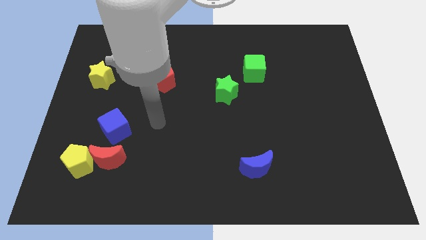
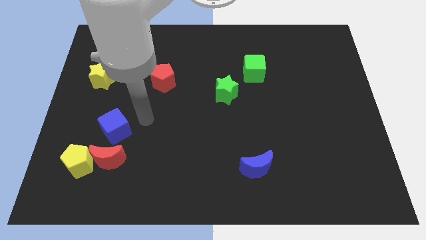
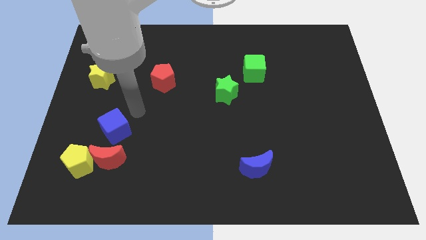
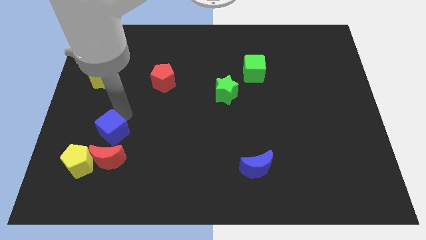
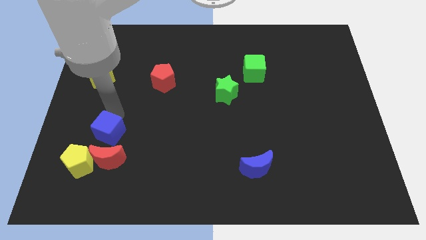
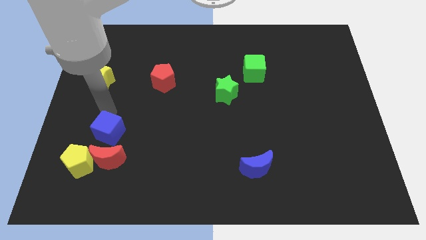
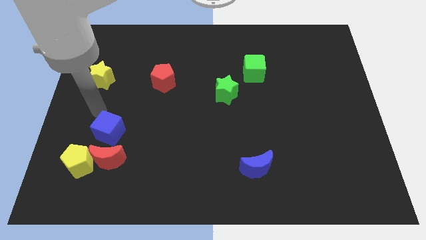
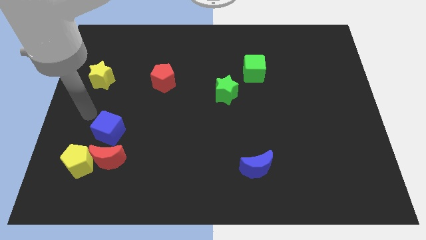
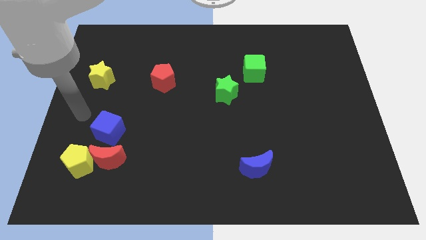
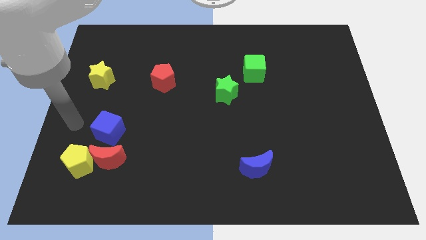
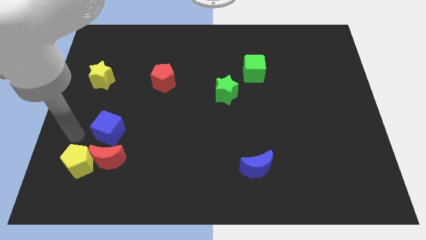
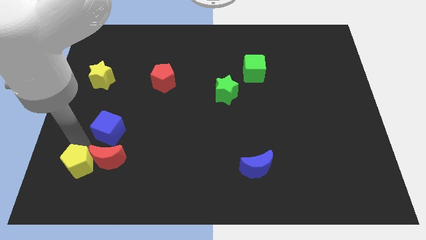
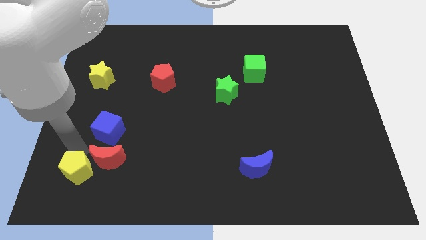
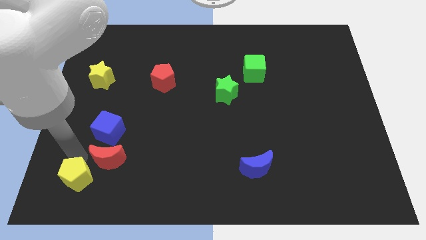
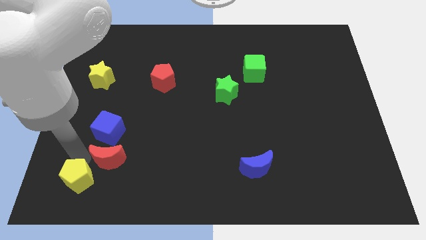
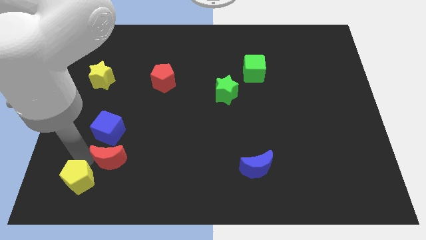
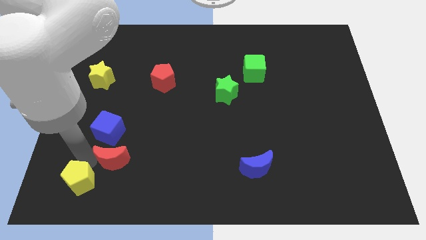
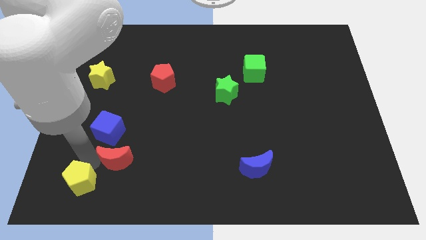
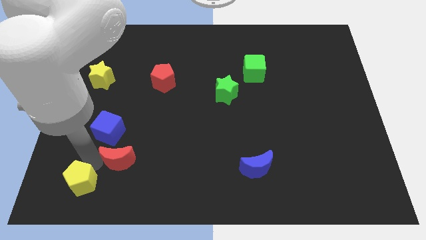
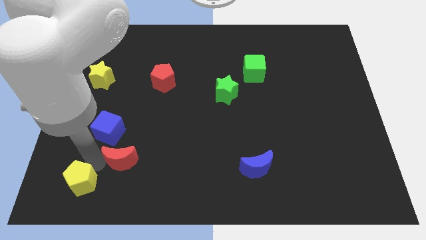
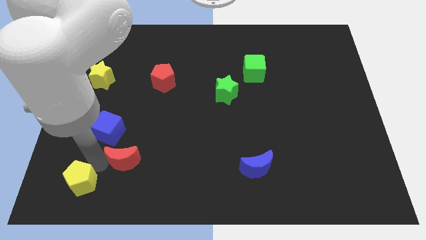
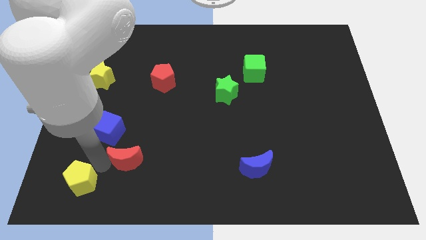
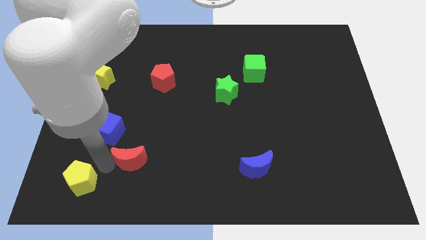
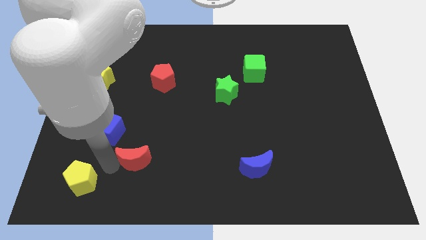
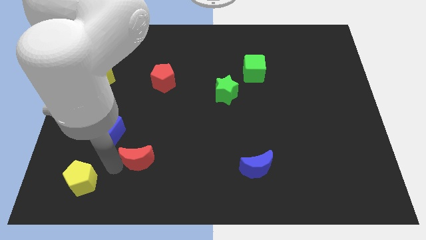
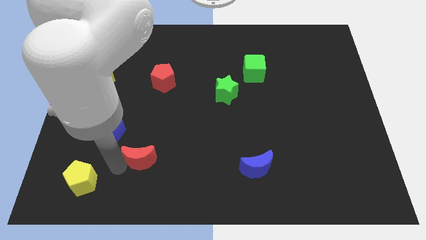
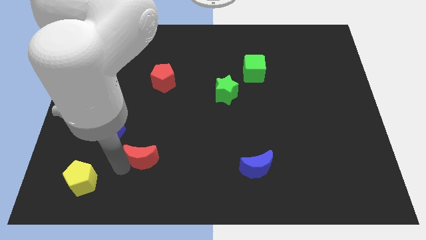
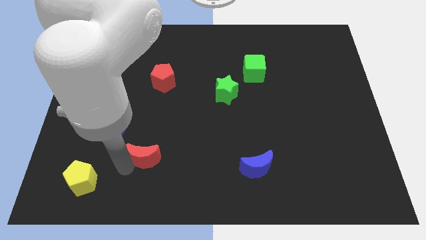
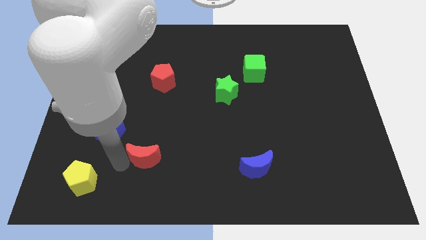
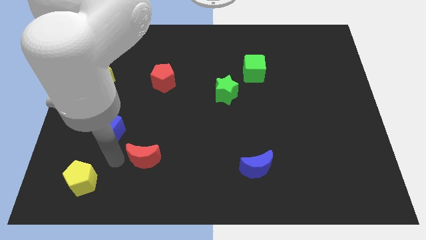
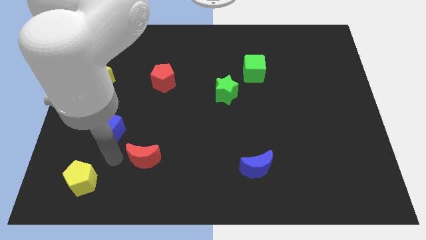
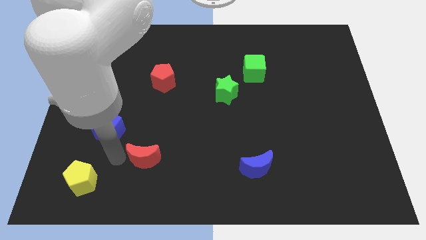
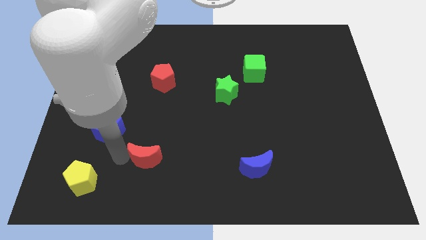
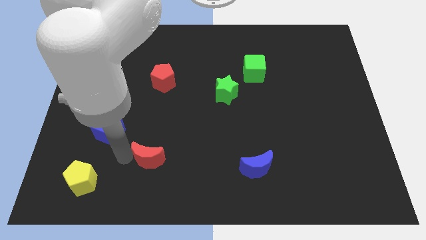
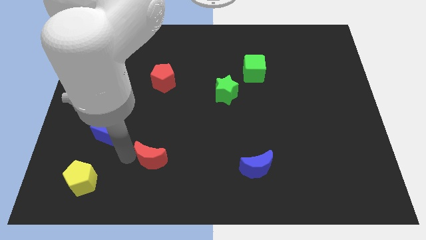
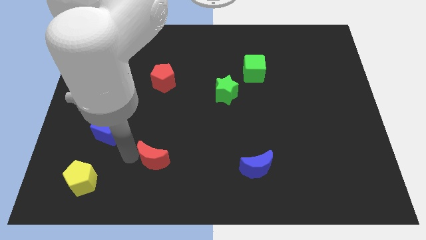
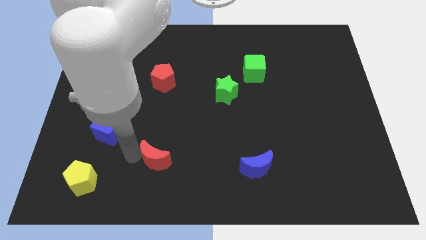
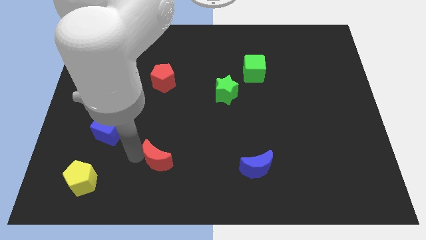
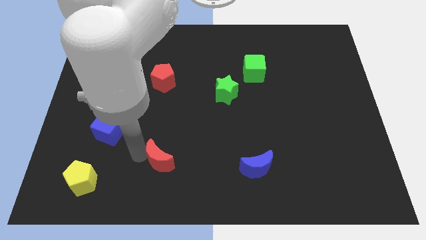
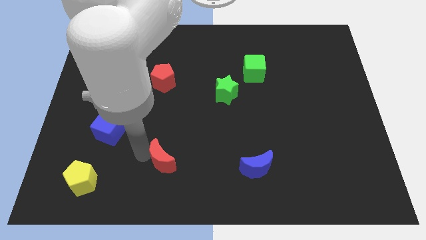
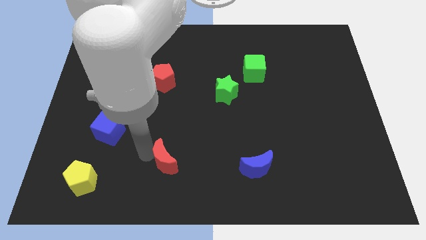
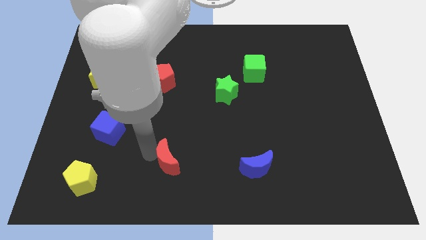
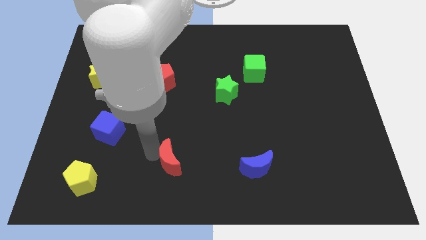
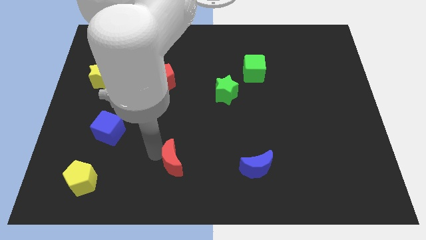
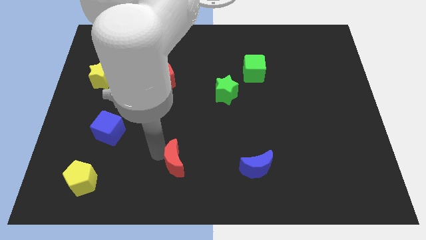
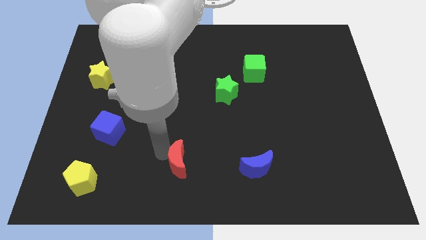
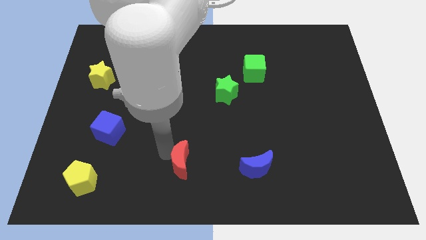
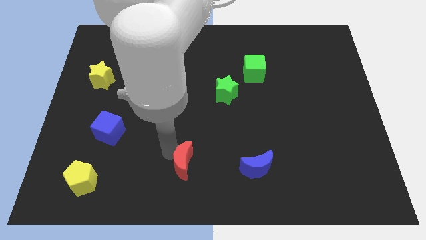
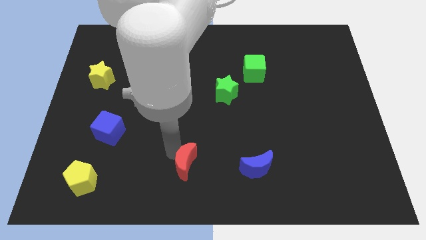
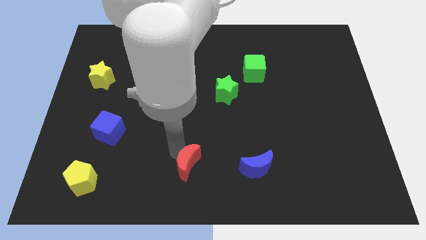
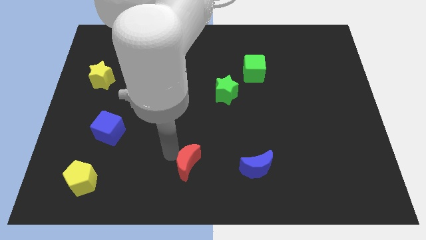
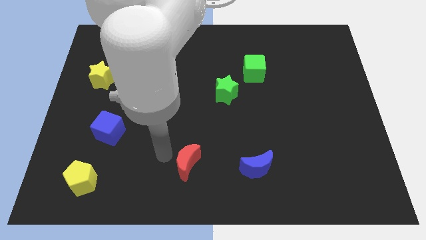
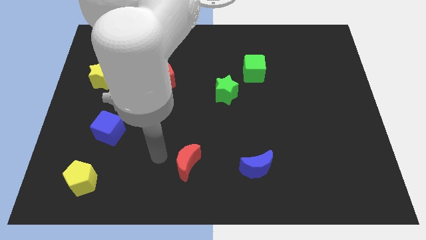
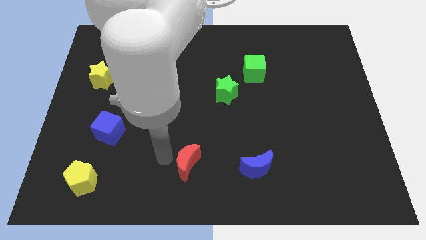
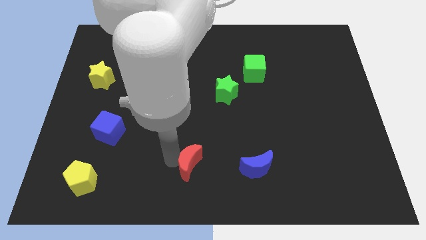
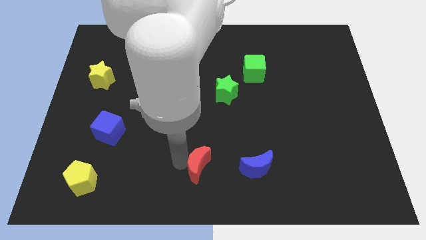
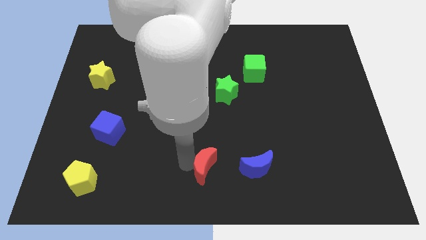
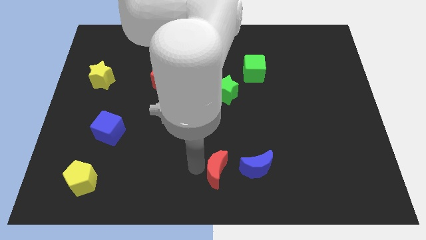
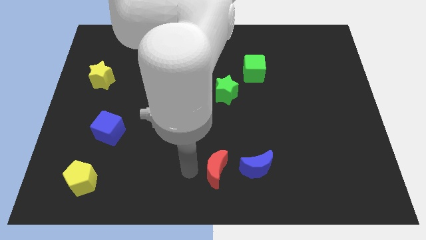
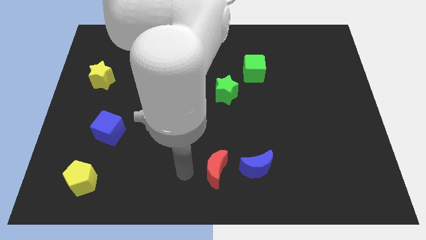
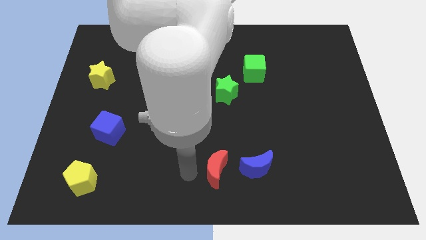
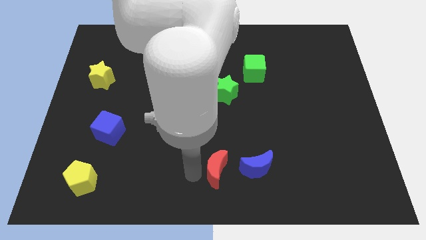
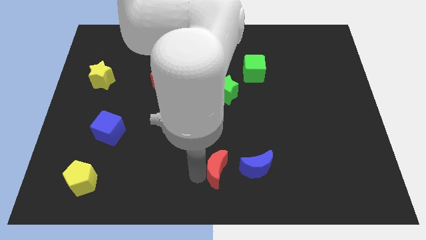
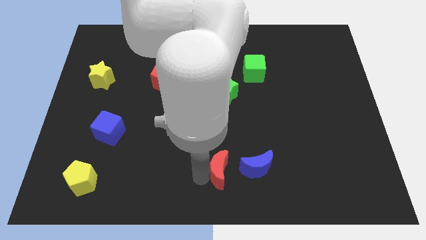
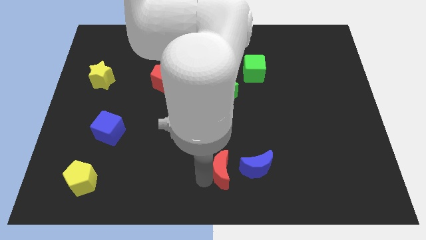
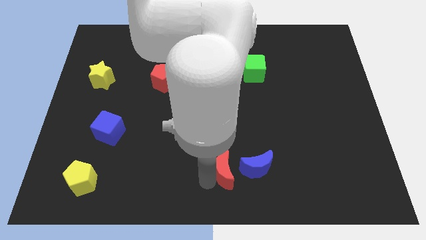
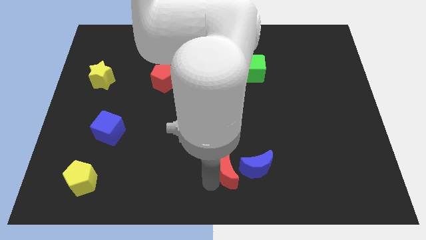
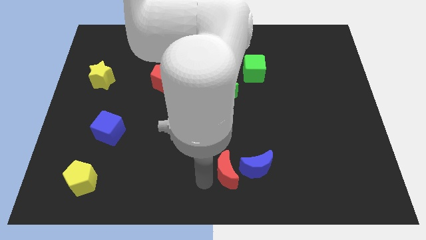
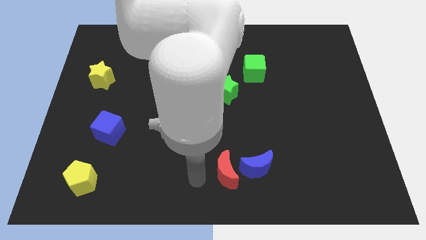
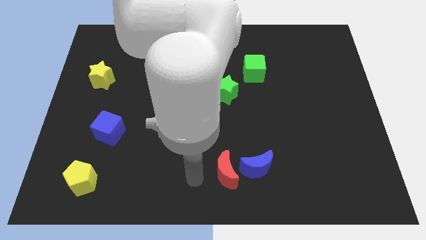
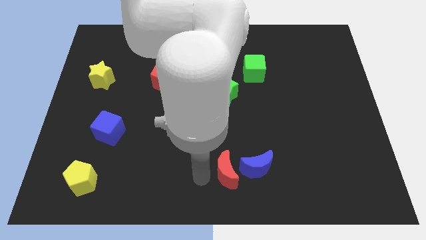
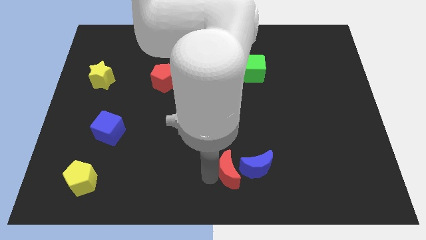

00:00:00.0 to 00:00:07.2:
put the red moon towards the blue moon
